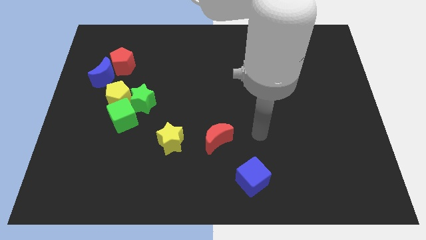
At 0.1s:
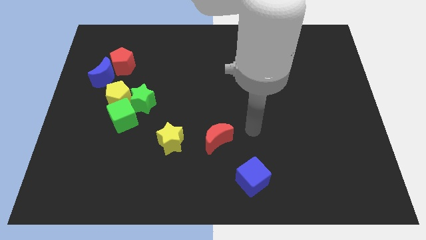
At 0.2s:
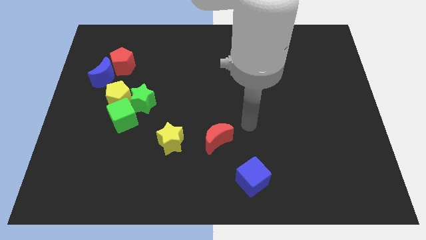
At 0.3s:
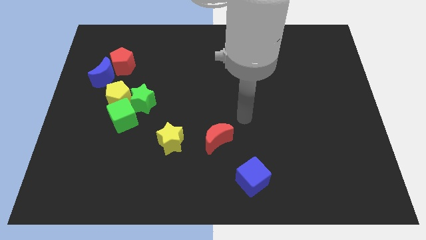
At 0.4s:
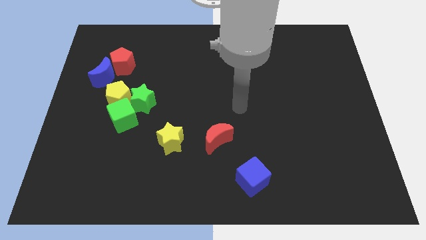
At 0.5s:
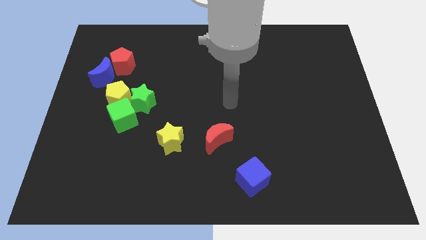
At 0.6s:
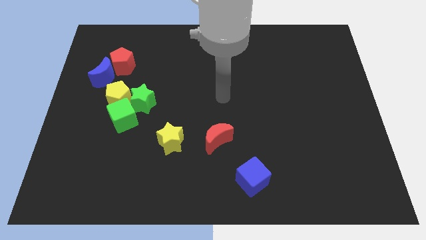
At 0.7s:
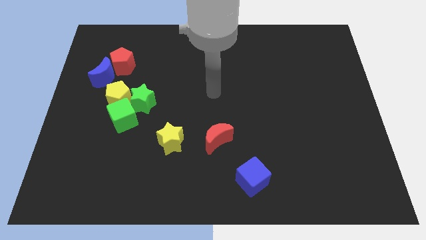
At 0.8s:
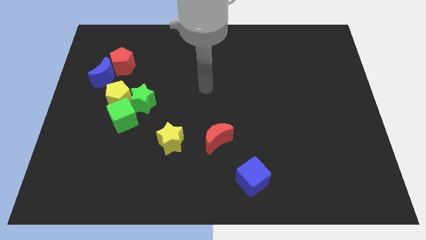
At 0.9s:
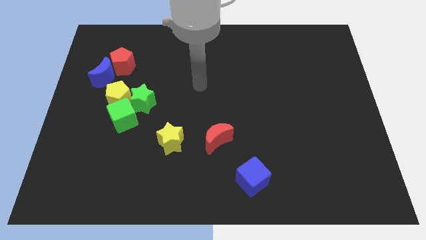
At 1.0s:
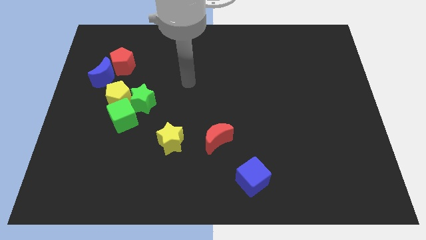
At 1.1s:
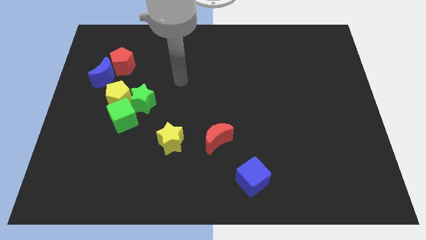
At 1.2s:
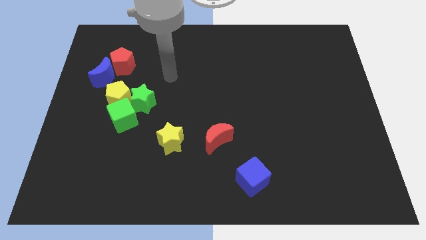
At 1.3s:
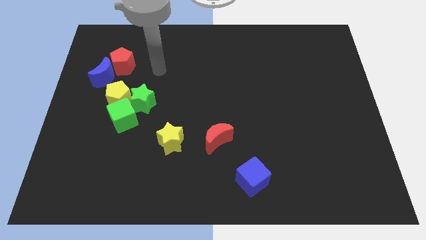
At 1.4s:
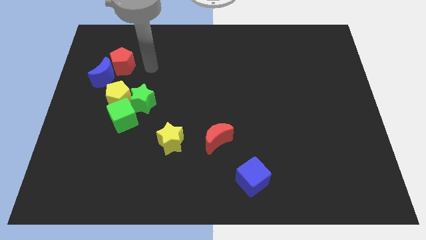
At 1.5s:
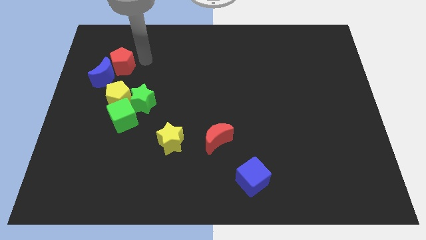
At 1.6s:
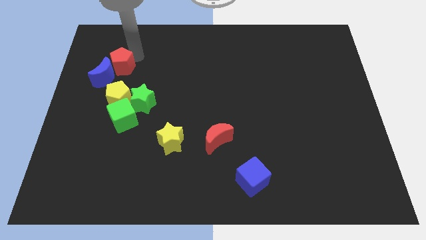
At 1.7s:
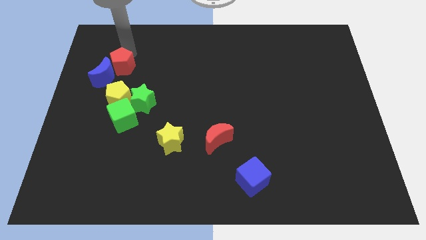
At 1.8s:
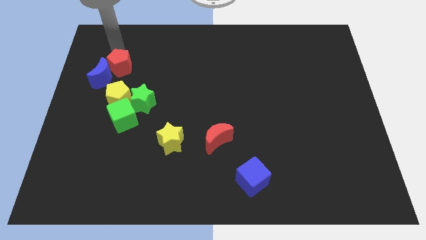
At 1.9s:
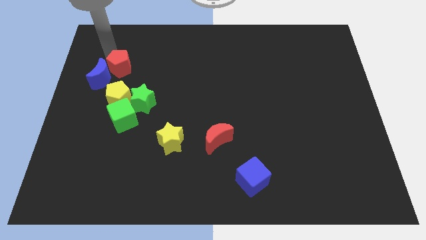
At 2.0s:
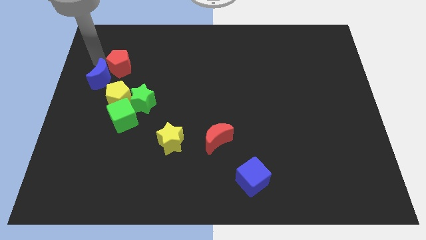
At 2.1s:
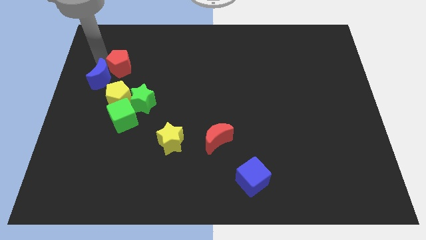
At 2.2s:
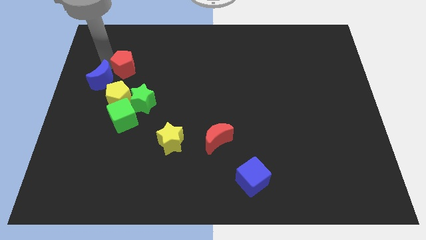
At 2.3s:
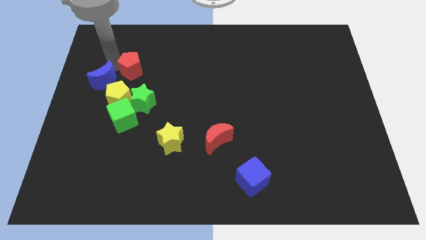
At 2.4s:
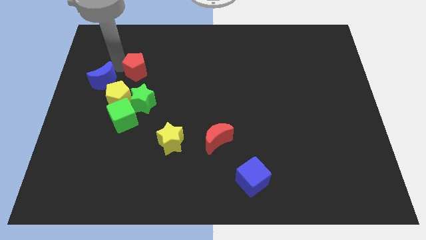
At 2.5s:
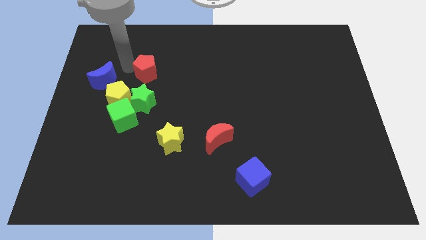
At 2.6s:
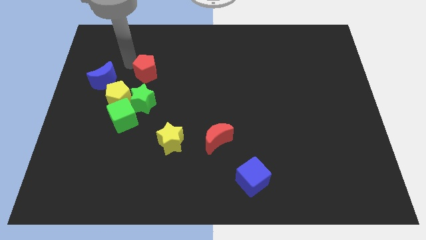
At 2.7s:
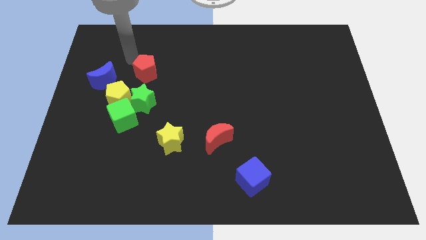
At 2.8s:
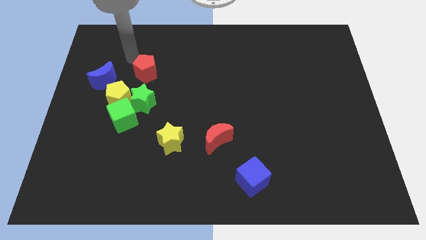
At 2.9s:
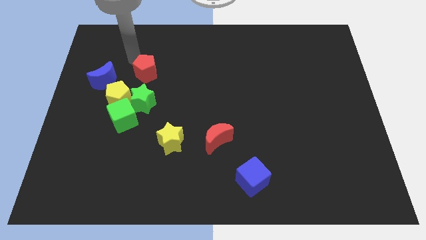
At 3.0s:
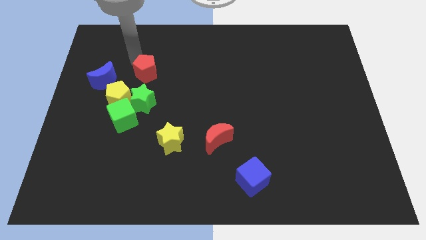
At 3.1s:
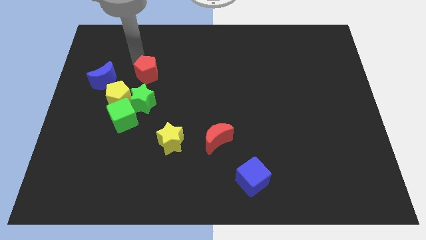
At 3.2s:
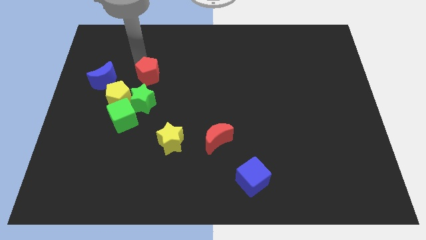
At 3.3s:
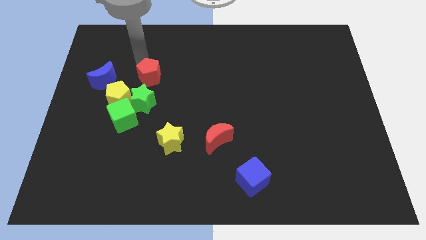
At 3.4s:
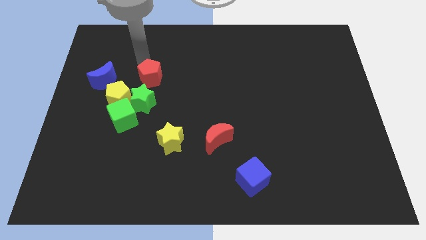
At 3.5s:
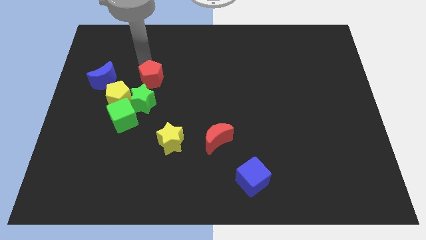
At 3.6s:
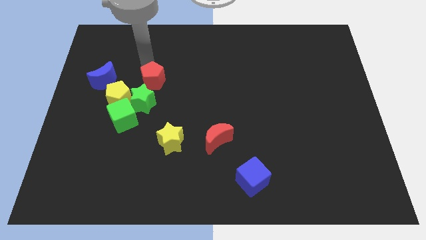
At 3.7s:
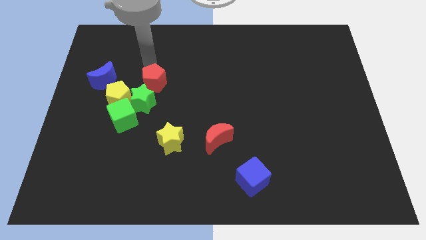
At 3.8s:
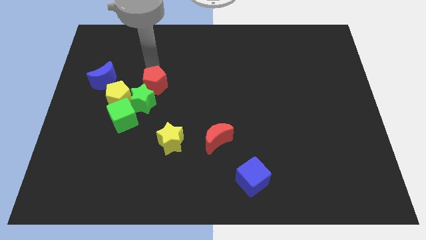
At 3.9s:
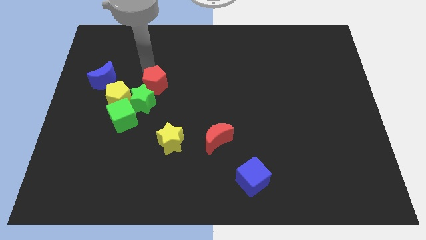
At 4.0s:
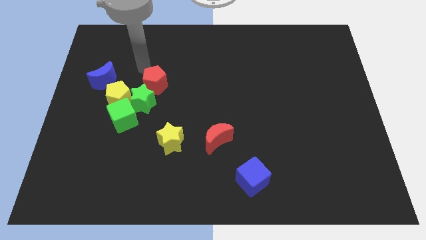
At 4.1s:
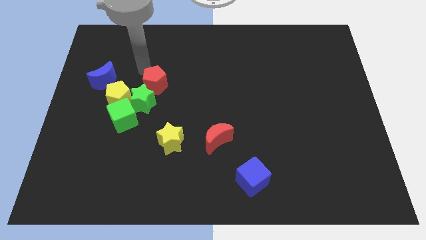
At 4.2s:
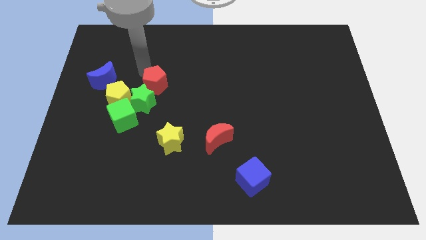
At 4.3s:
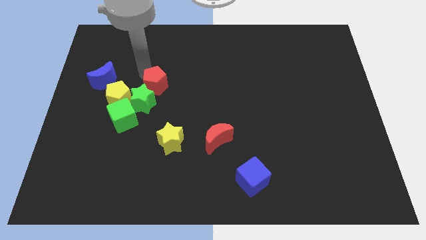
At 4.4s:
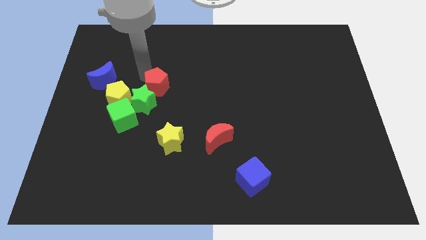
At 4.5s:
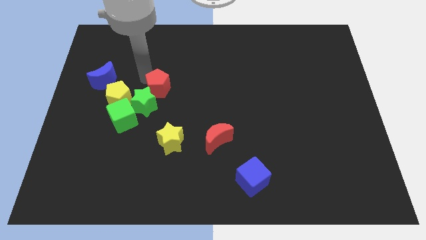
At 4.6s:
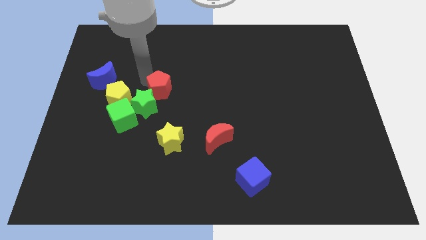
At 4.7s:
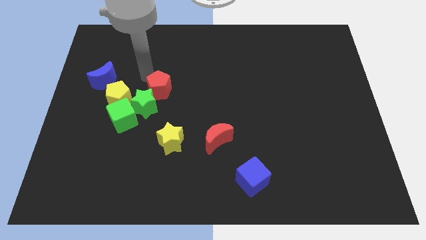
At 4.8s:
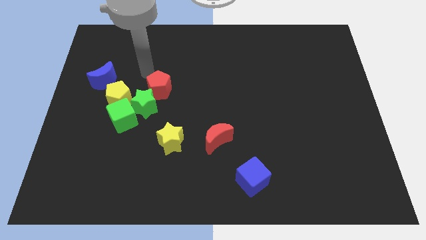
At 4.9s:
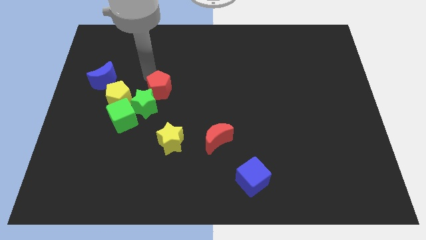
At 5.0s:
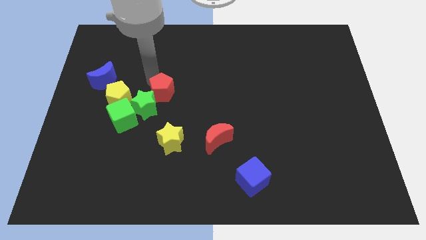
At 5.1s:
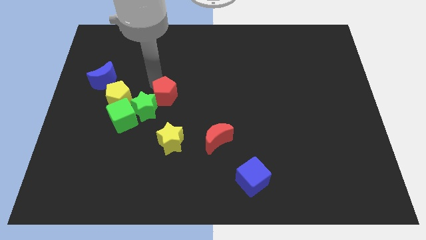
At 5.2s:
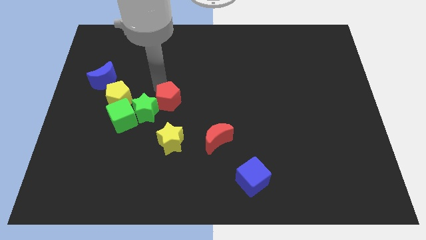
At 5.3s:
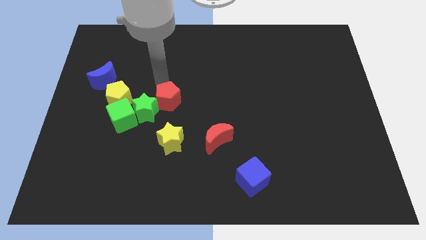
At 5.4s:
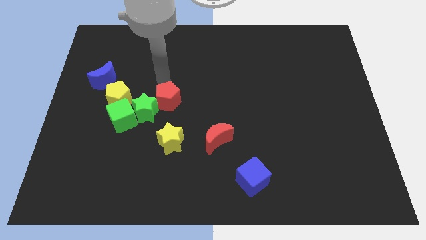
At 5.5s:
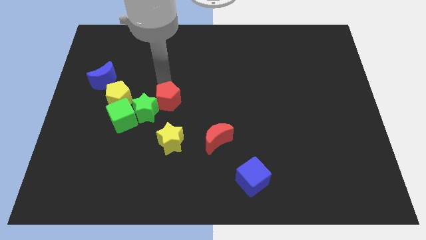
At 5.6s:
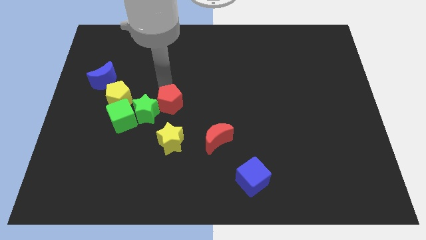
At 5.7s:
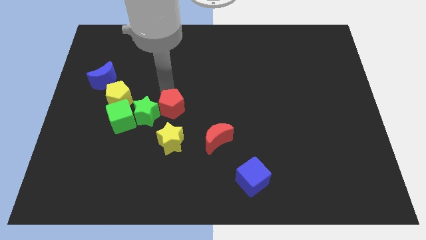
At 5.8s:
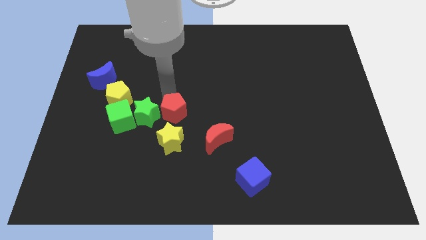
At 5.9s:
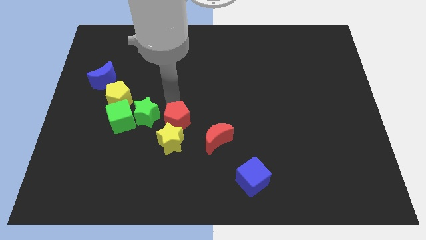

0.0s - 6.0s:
push the red pentagon to the yellow star

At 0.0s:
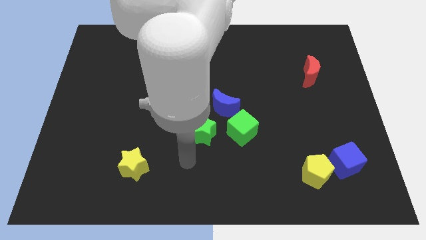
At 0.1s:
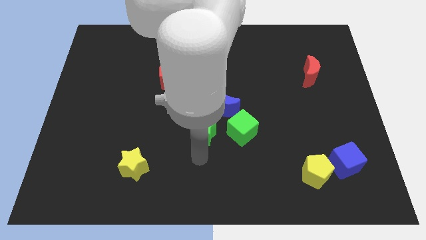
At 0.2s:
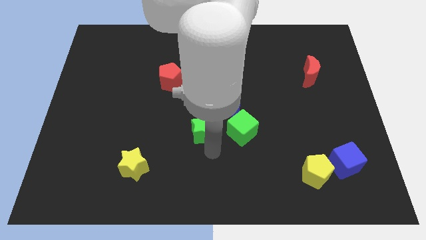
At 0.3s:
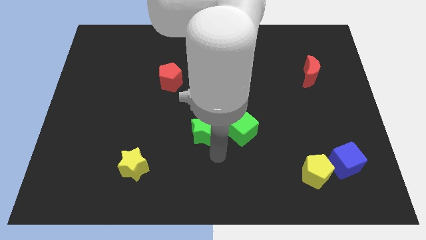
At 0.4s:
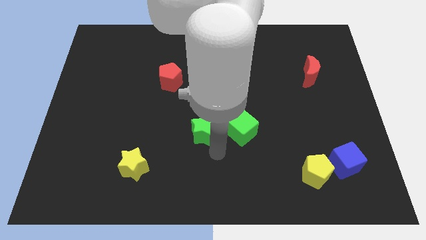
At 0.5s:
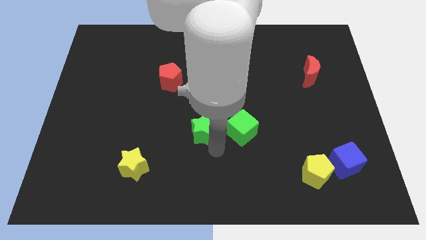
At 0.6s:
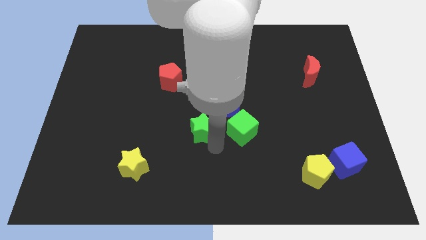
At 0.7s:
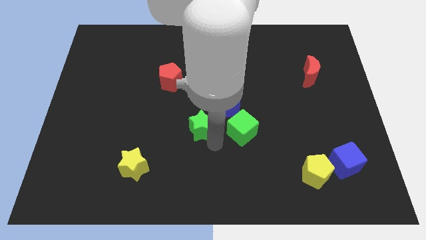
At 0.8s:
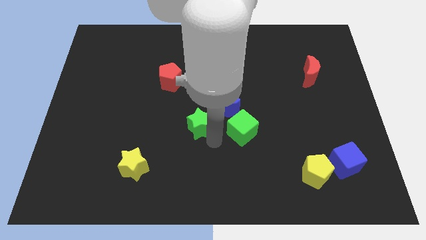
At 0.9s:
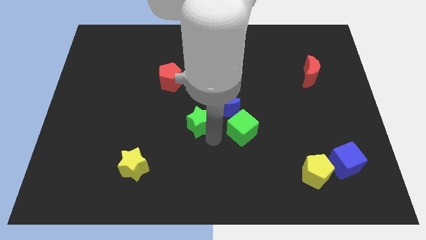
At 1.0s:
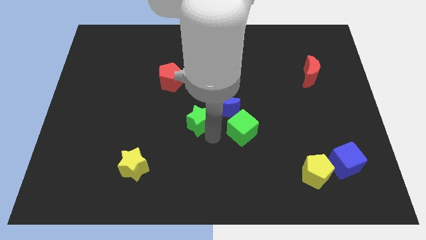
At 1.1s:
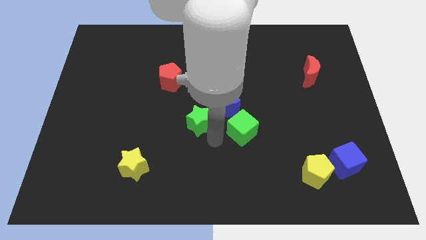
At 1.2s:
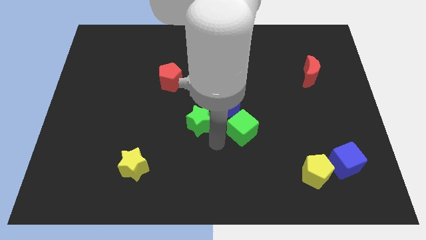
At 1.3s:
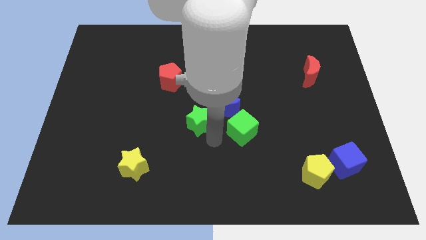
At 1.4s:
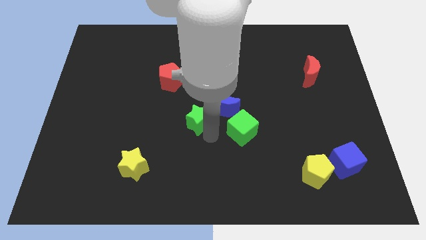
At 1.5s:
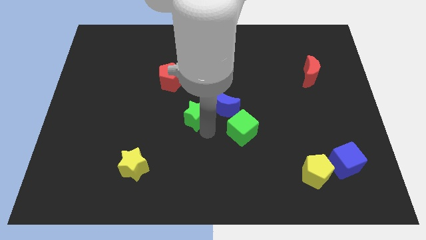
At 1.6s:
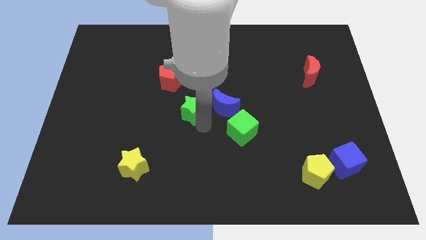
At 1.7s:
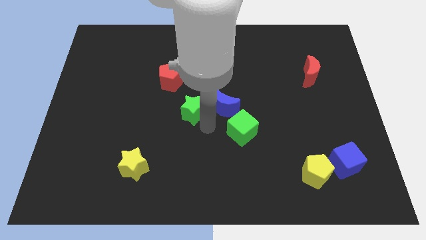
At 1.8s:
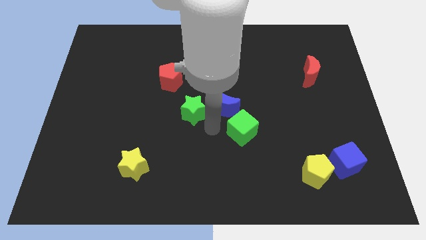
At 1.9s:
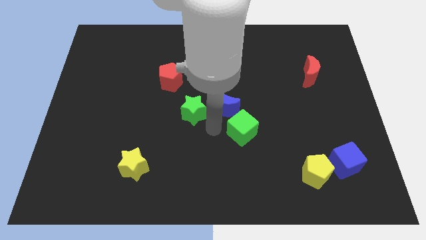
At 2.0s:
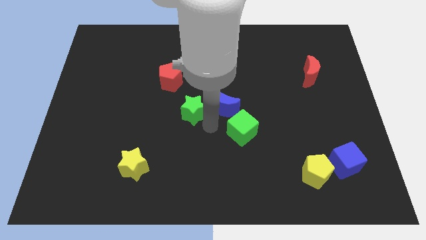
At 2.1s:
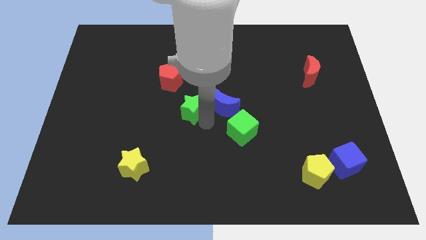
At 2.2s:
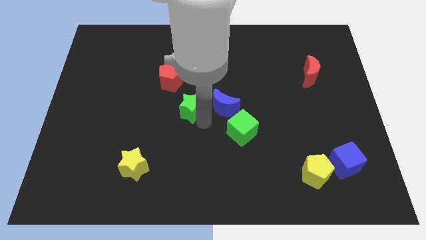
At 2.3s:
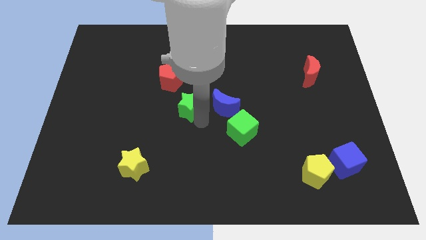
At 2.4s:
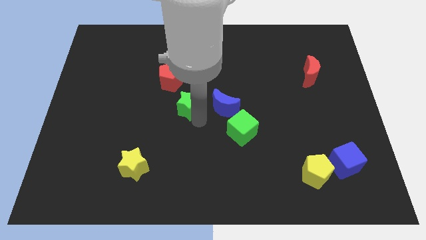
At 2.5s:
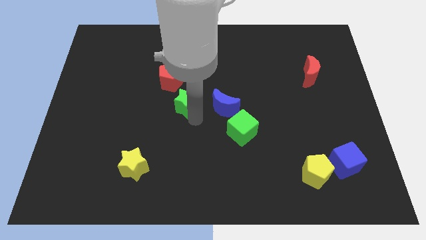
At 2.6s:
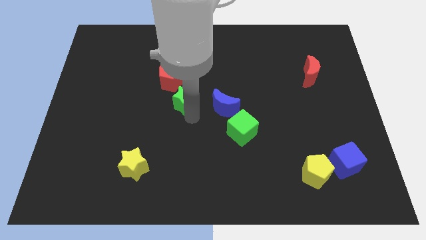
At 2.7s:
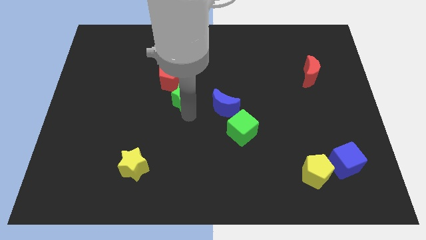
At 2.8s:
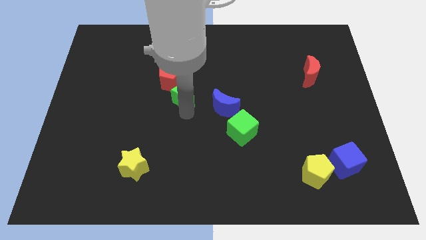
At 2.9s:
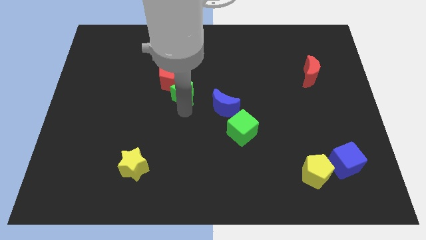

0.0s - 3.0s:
move the green star towards the red pentagon
